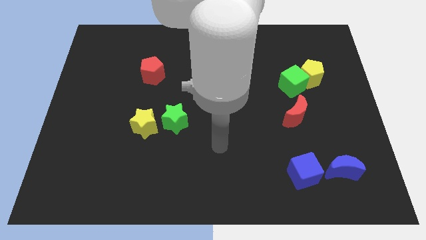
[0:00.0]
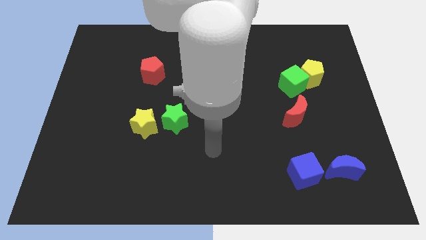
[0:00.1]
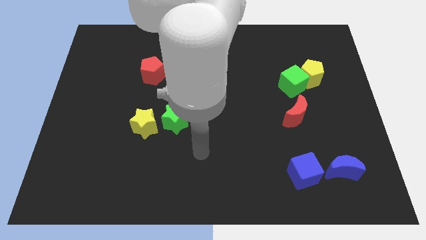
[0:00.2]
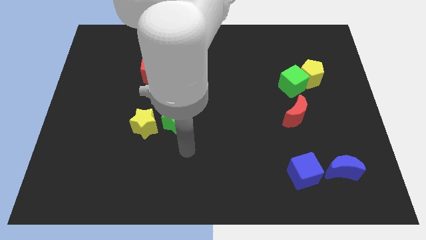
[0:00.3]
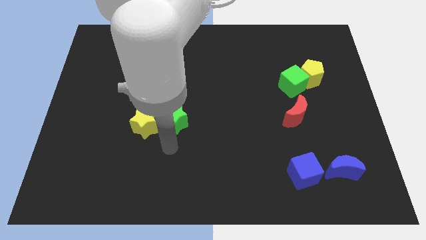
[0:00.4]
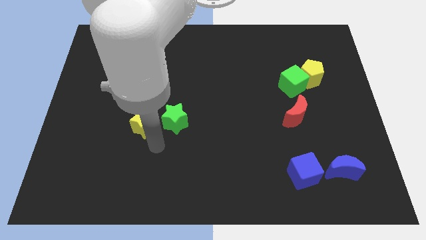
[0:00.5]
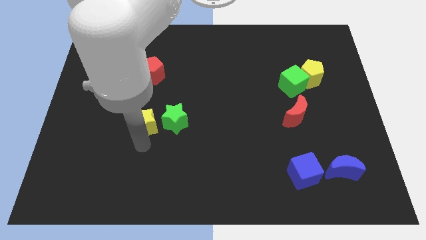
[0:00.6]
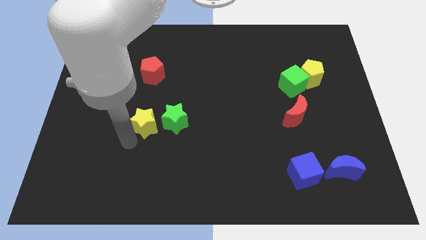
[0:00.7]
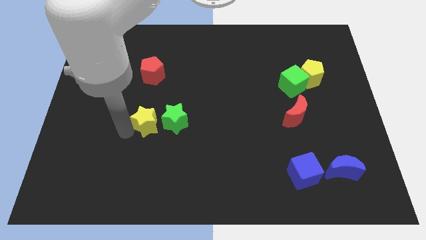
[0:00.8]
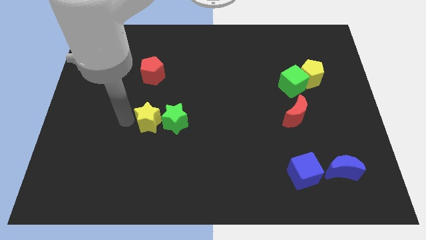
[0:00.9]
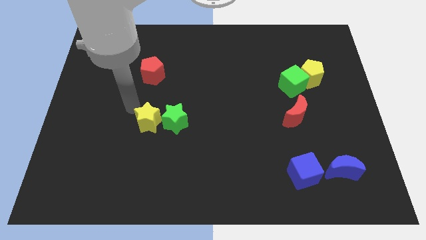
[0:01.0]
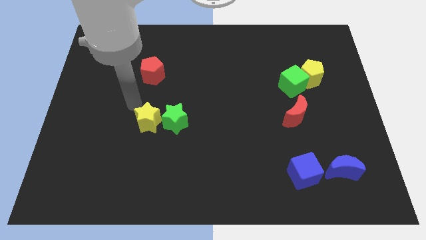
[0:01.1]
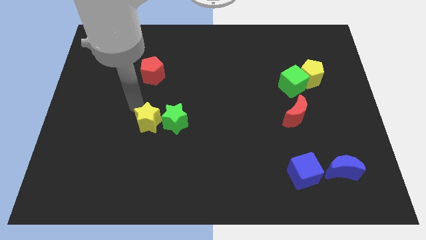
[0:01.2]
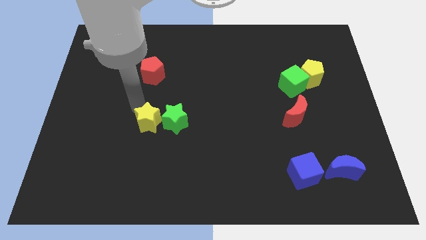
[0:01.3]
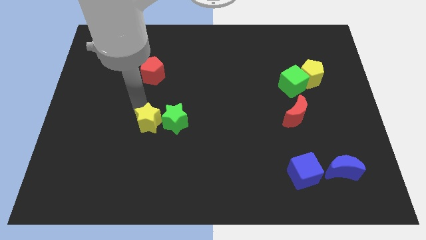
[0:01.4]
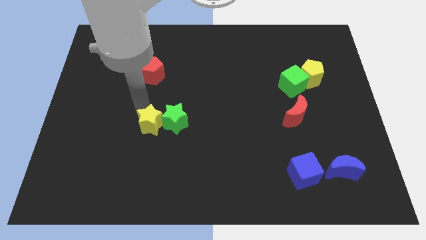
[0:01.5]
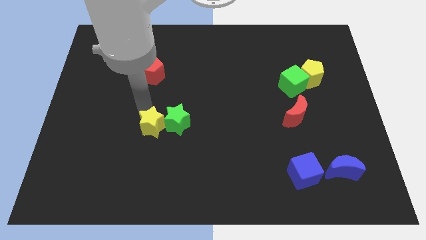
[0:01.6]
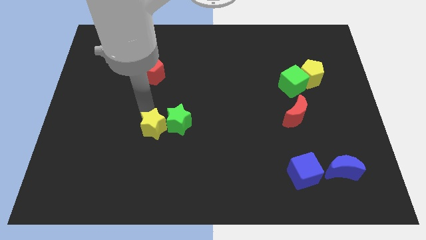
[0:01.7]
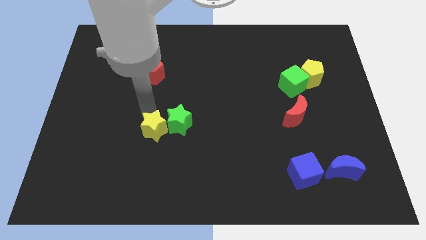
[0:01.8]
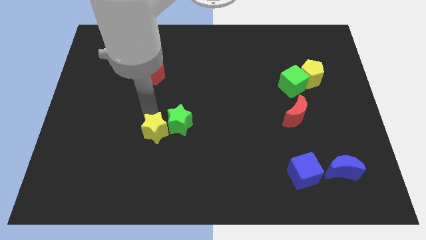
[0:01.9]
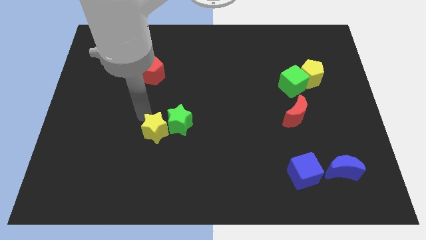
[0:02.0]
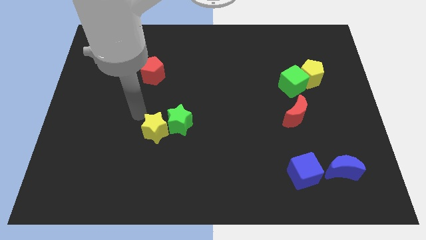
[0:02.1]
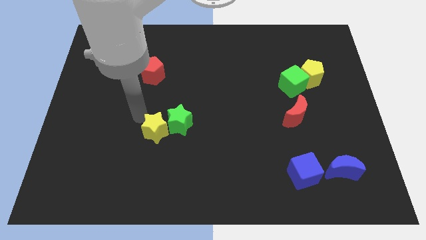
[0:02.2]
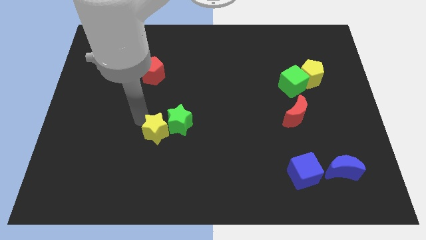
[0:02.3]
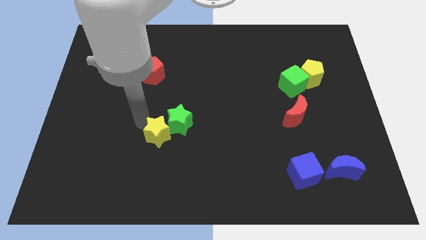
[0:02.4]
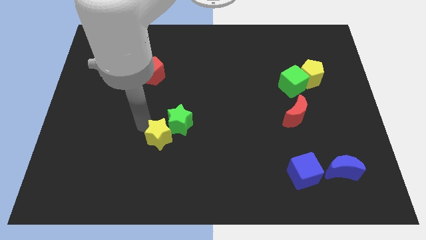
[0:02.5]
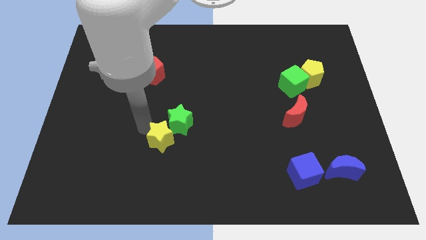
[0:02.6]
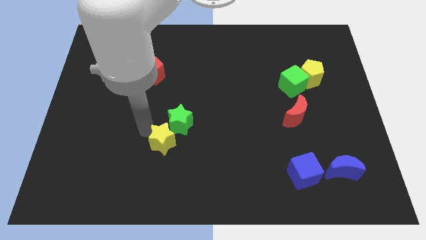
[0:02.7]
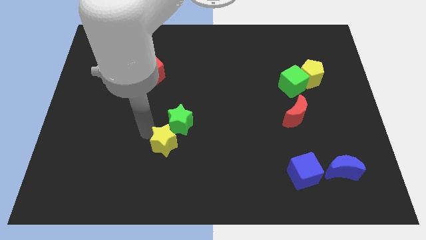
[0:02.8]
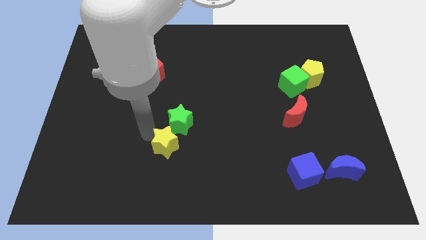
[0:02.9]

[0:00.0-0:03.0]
slightly slide the yellow star diagonally downwards and to the right

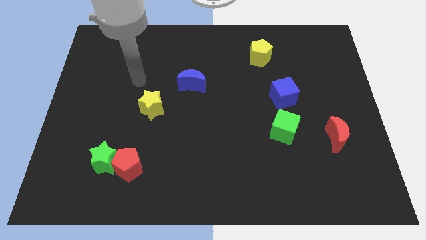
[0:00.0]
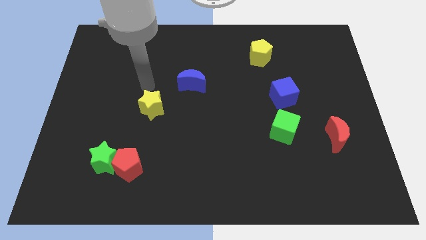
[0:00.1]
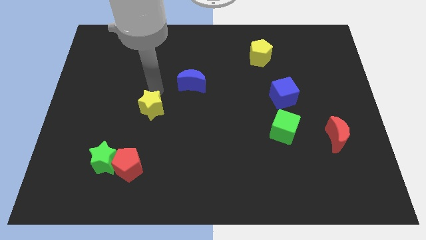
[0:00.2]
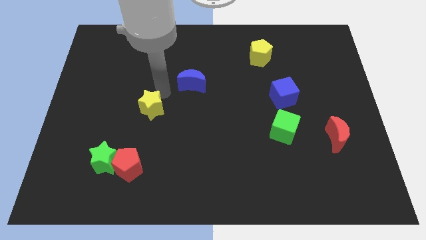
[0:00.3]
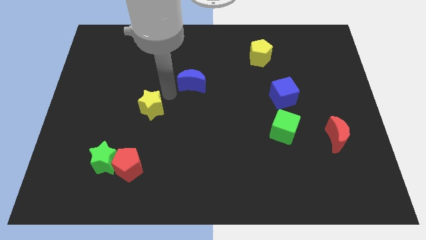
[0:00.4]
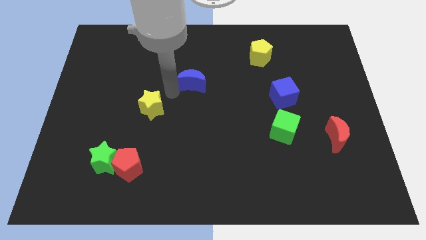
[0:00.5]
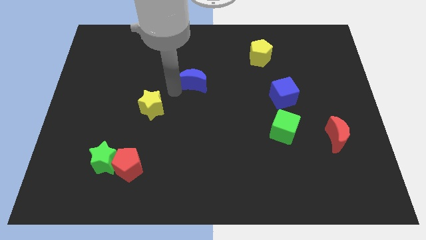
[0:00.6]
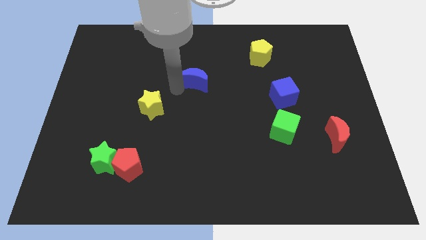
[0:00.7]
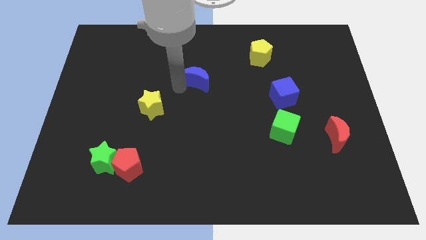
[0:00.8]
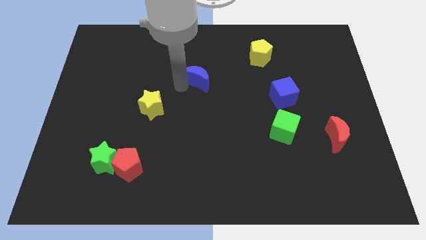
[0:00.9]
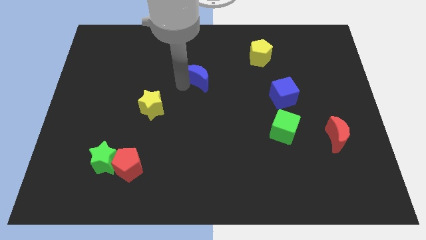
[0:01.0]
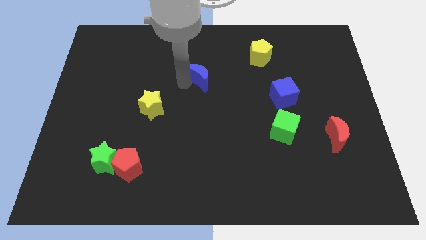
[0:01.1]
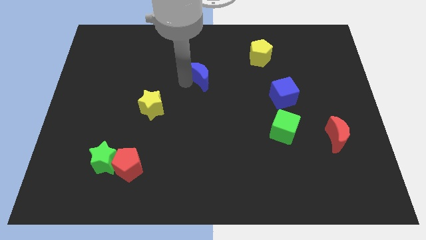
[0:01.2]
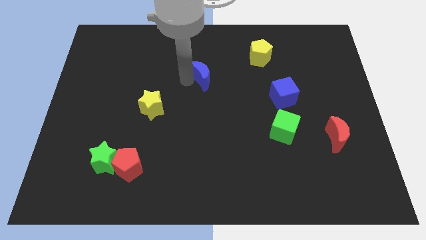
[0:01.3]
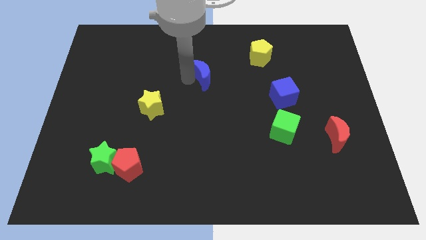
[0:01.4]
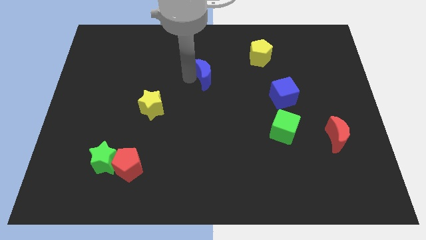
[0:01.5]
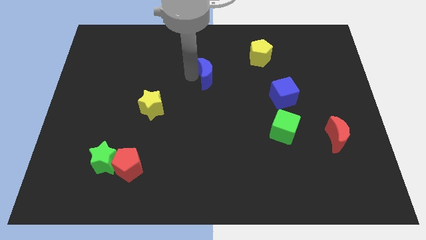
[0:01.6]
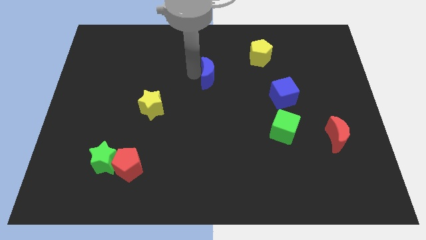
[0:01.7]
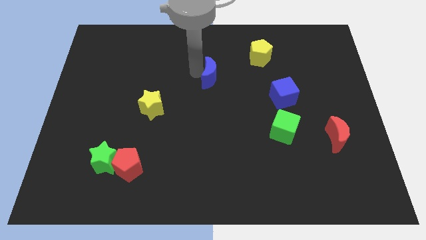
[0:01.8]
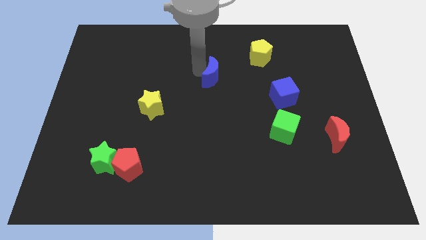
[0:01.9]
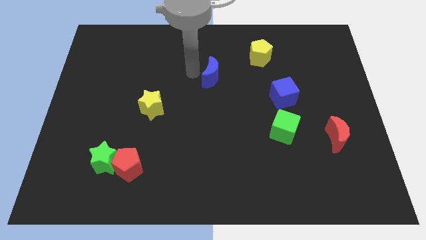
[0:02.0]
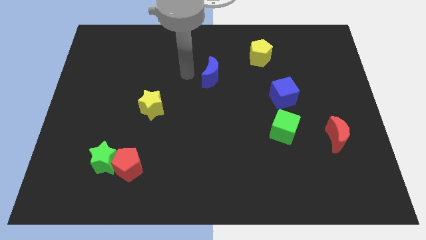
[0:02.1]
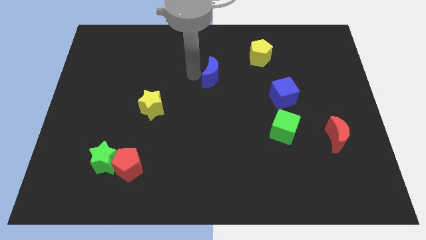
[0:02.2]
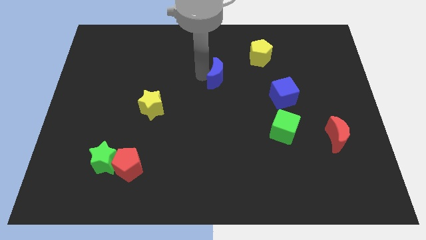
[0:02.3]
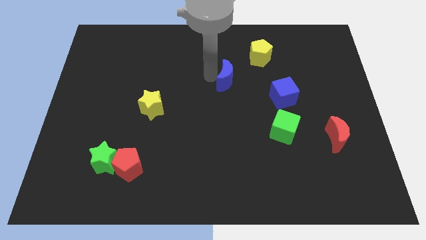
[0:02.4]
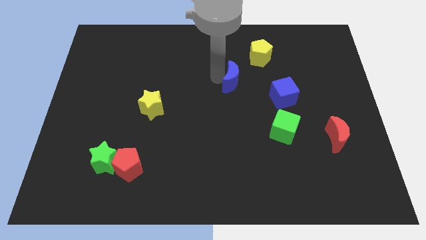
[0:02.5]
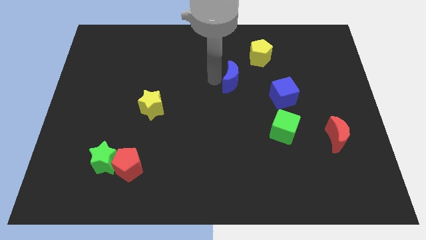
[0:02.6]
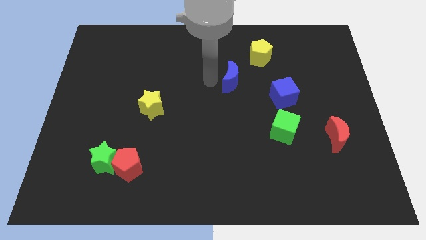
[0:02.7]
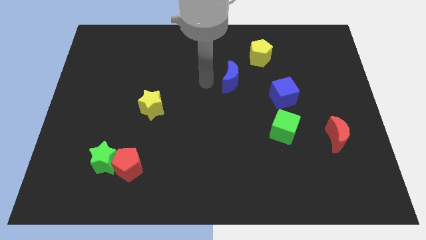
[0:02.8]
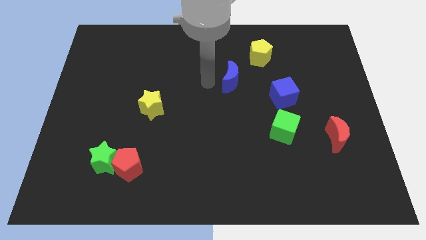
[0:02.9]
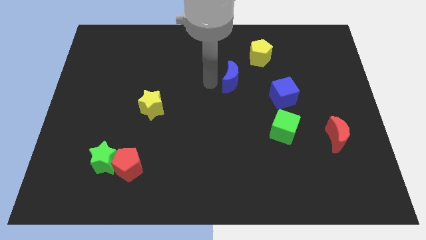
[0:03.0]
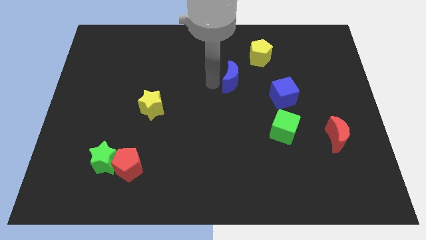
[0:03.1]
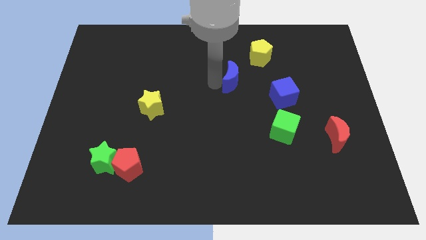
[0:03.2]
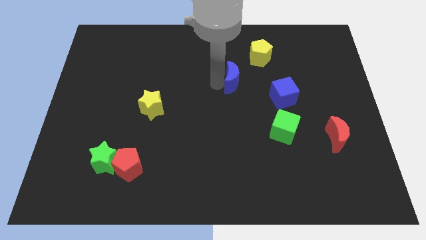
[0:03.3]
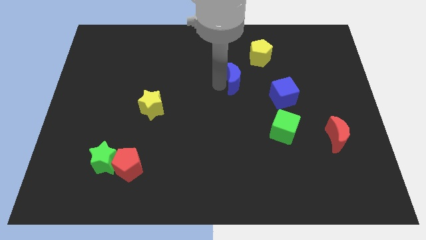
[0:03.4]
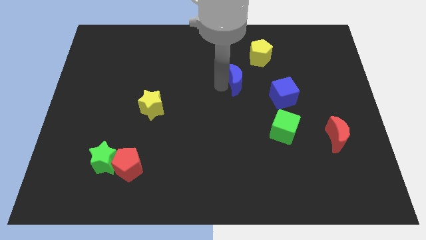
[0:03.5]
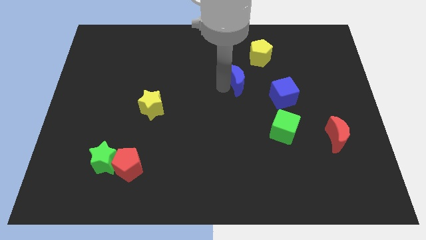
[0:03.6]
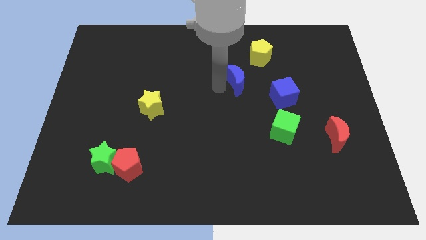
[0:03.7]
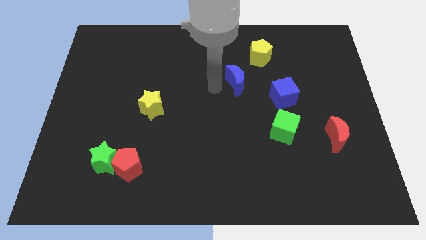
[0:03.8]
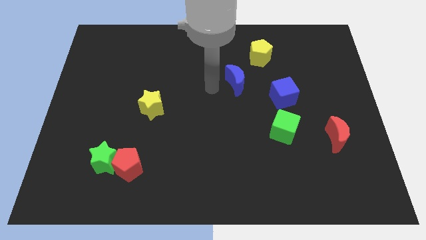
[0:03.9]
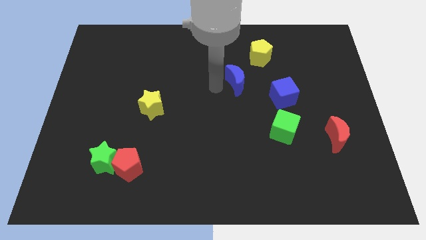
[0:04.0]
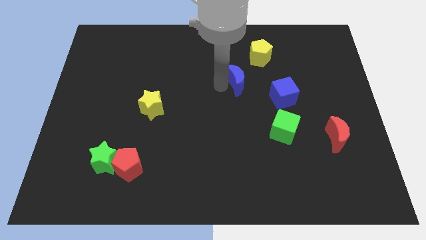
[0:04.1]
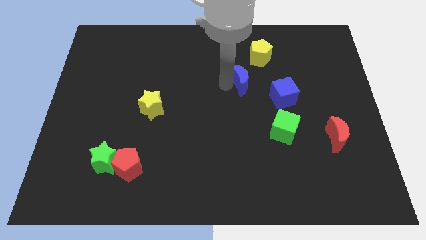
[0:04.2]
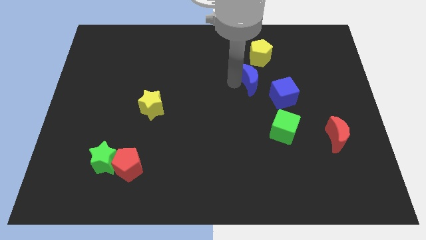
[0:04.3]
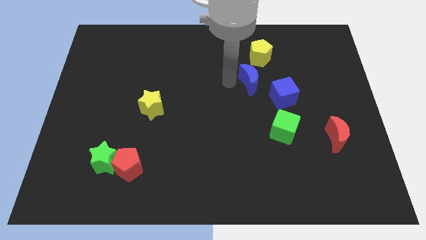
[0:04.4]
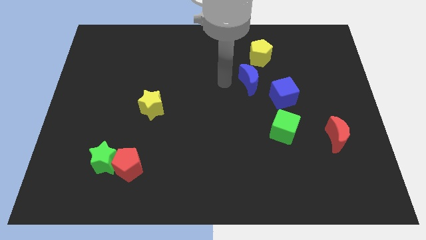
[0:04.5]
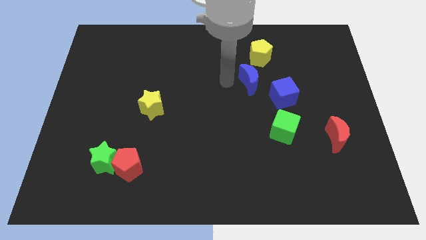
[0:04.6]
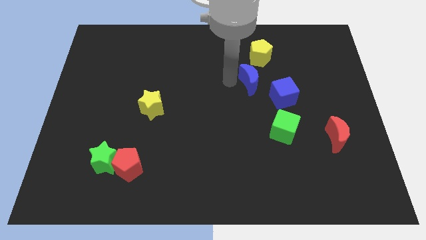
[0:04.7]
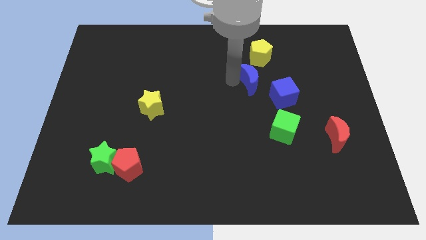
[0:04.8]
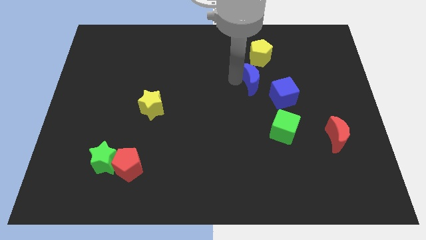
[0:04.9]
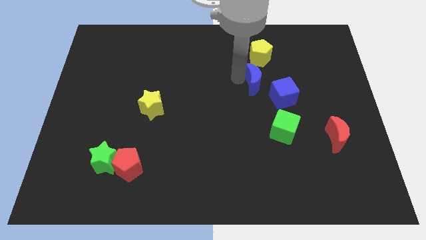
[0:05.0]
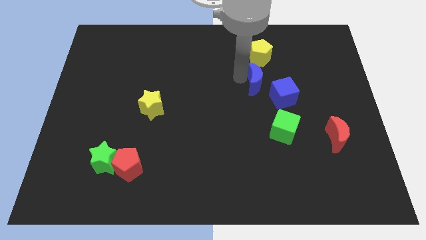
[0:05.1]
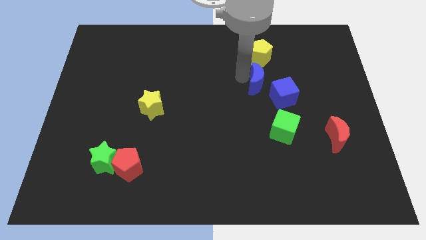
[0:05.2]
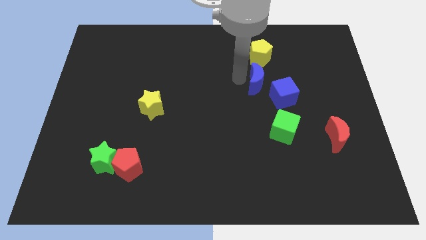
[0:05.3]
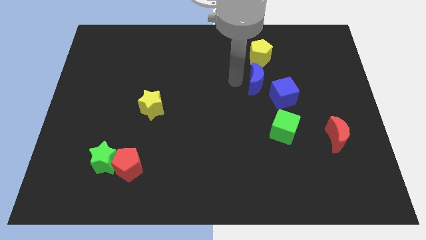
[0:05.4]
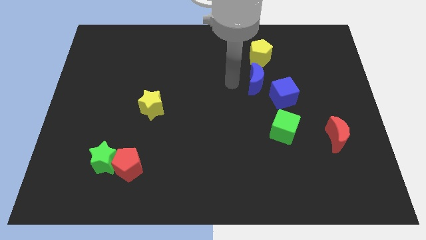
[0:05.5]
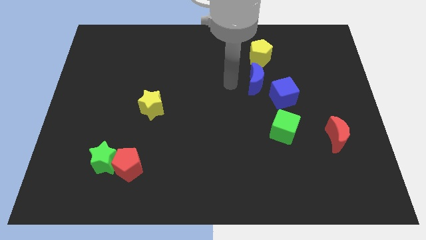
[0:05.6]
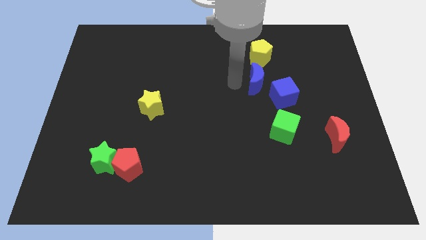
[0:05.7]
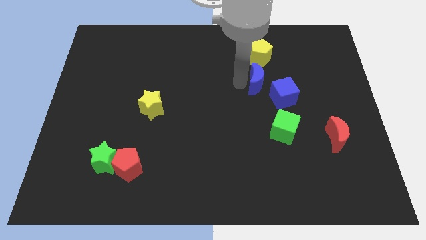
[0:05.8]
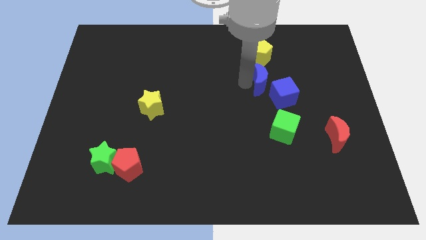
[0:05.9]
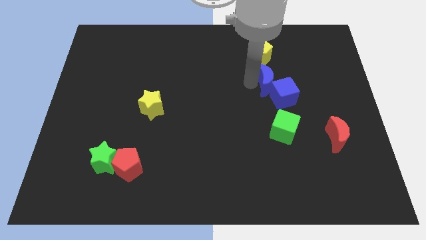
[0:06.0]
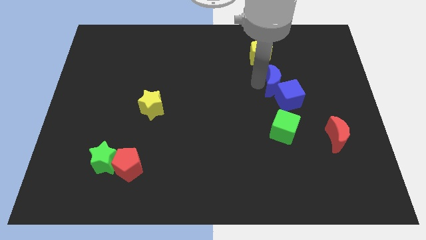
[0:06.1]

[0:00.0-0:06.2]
slide the blue moon to the right
